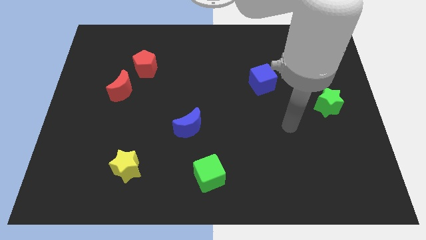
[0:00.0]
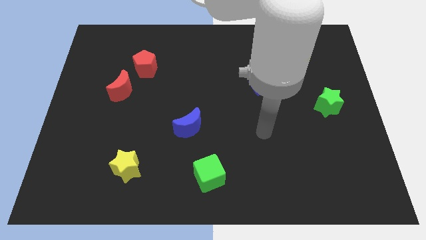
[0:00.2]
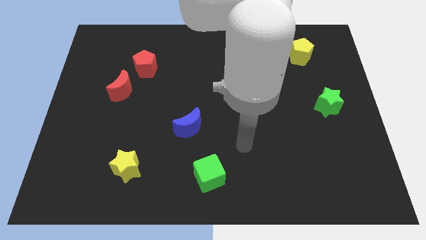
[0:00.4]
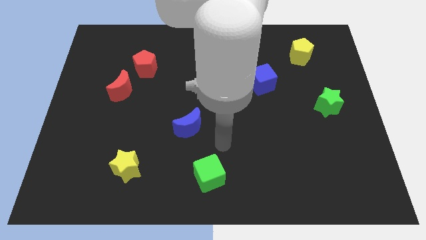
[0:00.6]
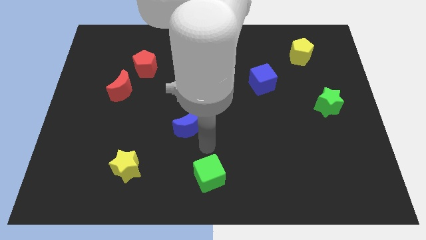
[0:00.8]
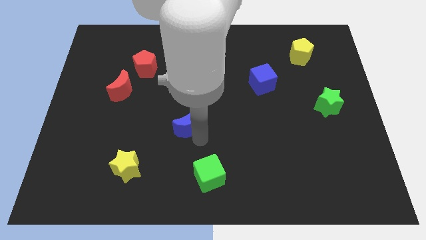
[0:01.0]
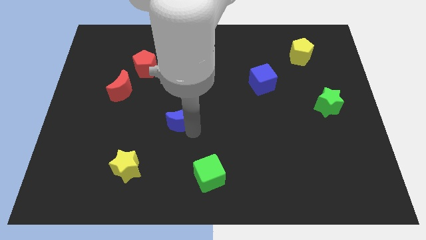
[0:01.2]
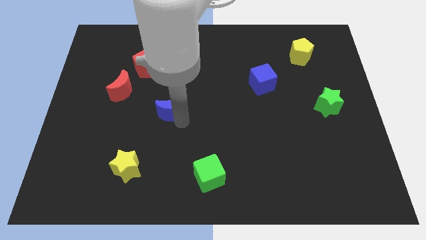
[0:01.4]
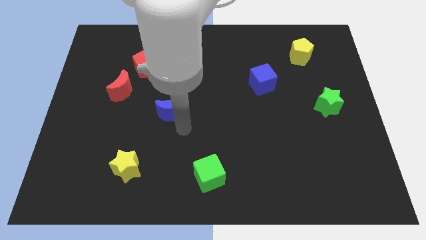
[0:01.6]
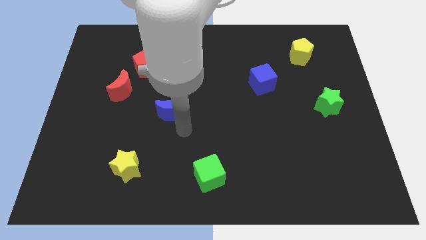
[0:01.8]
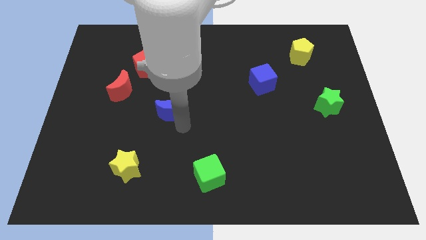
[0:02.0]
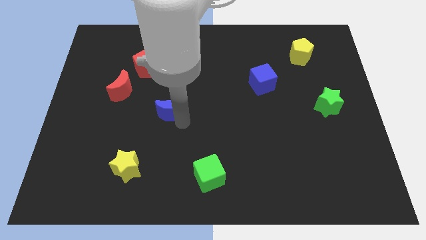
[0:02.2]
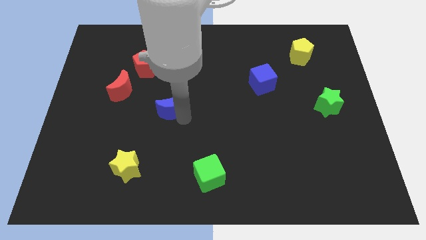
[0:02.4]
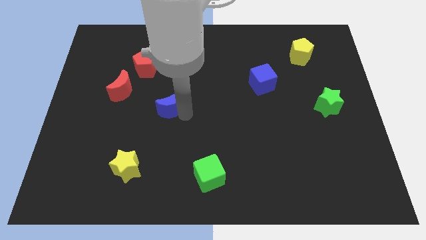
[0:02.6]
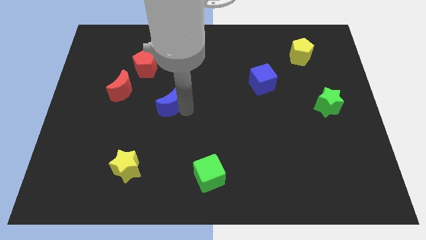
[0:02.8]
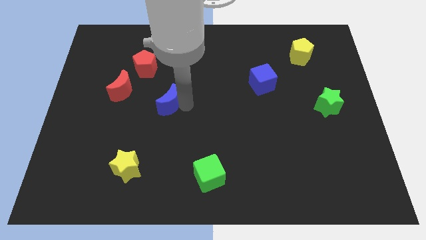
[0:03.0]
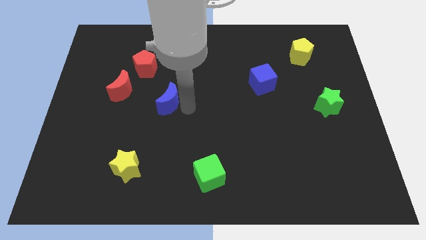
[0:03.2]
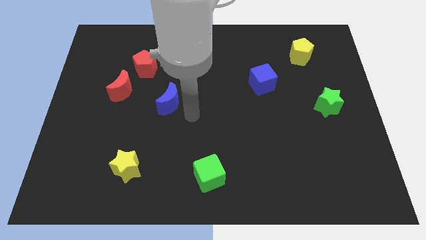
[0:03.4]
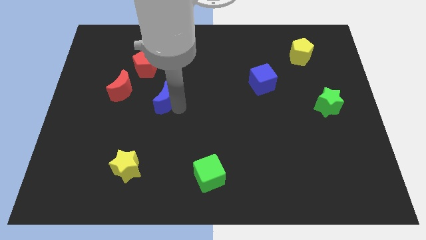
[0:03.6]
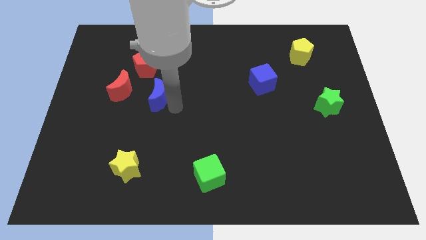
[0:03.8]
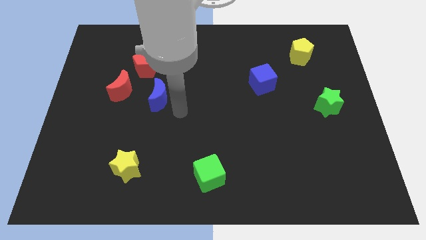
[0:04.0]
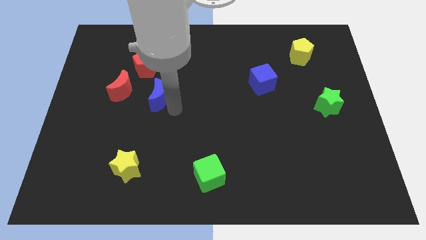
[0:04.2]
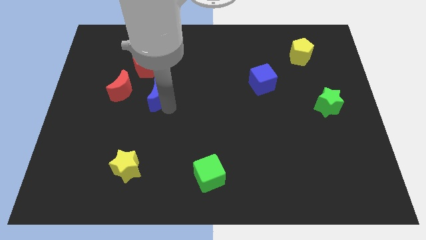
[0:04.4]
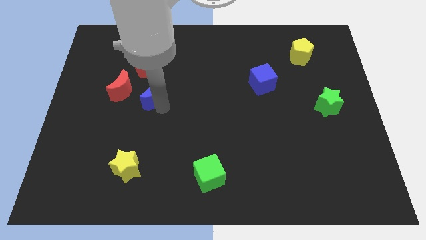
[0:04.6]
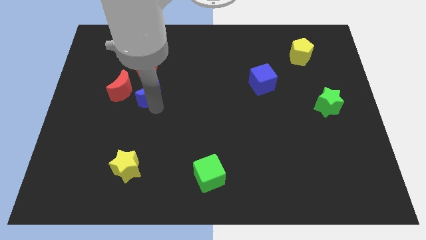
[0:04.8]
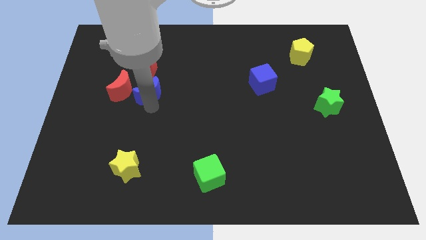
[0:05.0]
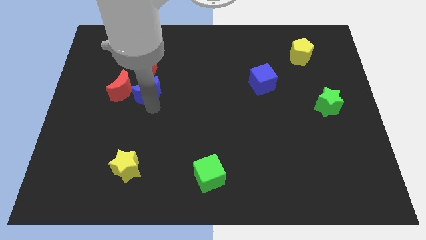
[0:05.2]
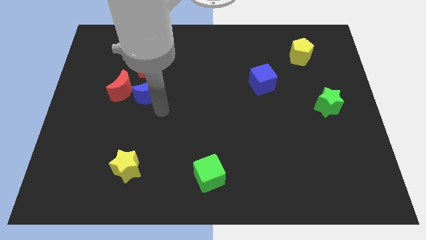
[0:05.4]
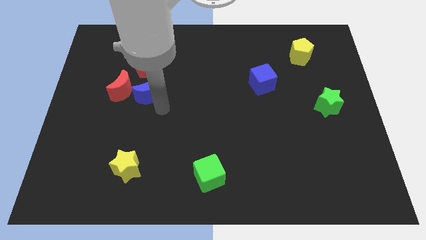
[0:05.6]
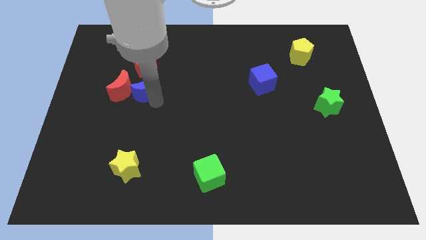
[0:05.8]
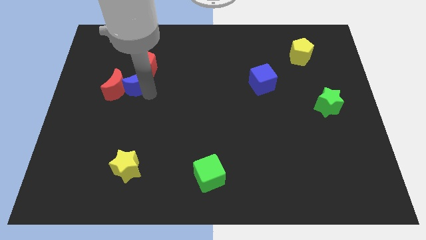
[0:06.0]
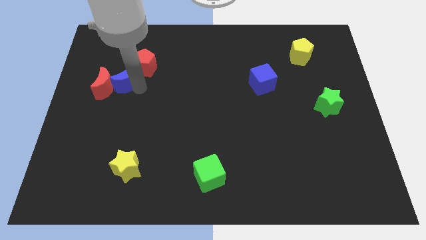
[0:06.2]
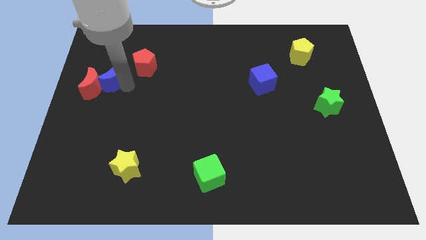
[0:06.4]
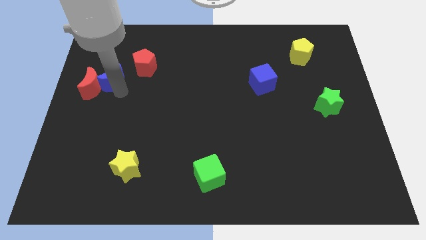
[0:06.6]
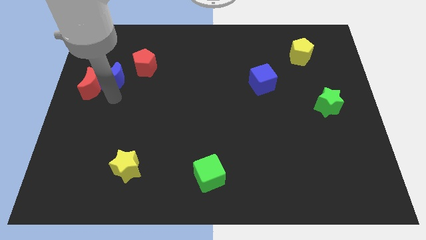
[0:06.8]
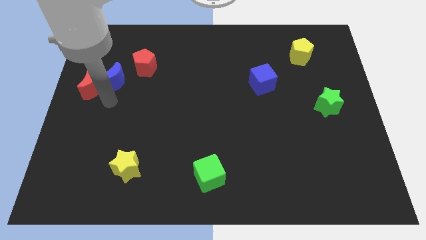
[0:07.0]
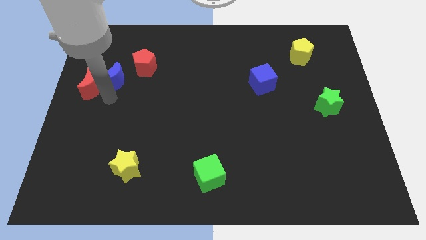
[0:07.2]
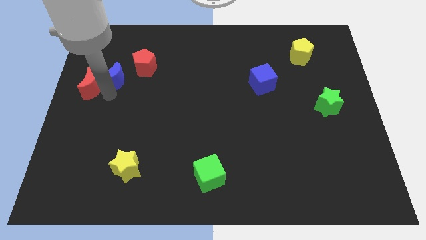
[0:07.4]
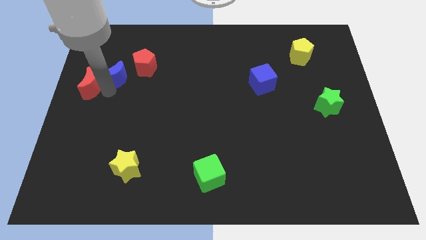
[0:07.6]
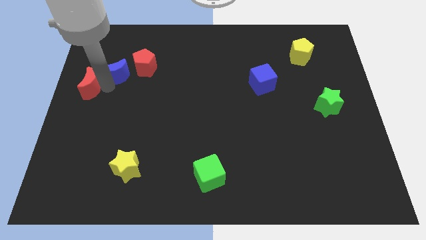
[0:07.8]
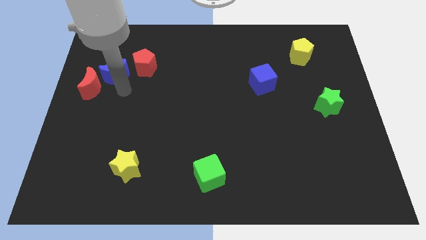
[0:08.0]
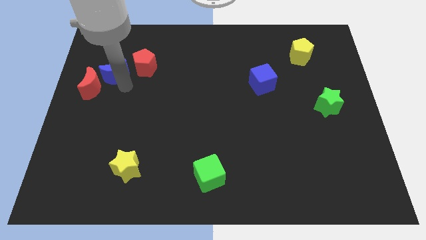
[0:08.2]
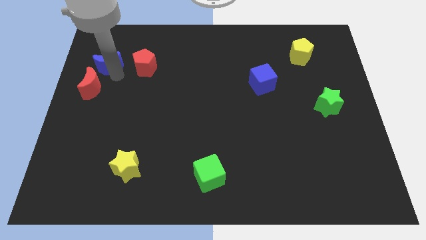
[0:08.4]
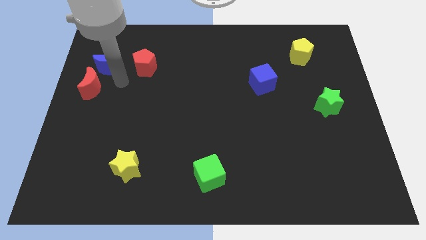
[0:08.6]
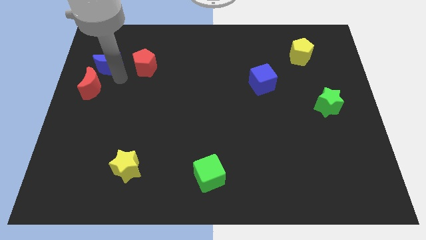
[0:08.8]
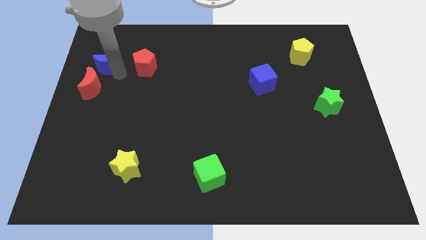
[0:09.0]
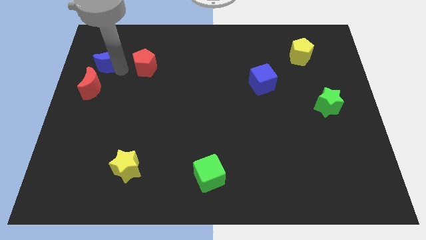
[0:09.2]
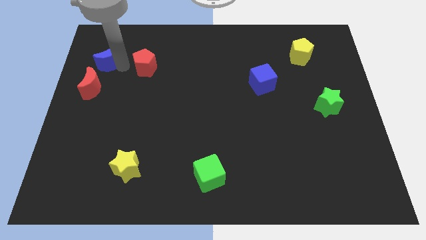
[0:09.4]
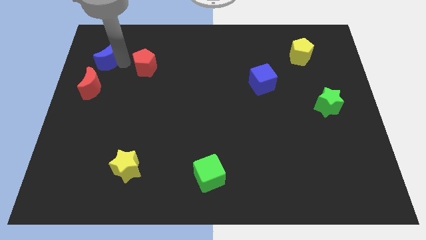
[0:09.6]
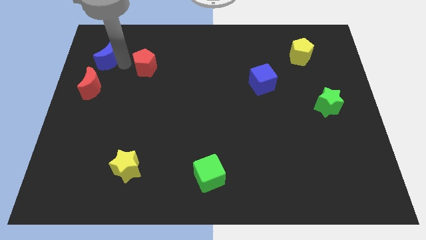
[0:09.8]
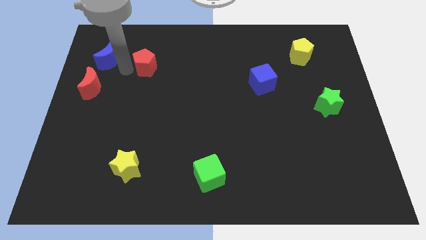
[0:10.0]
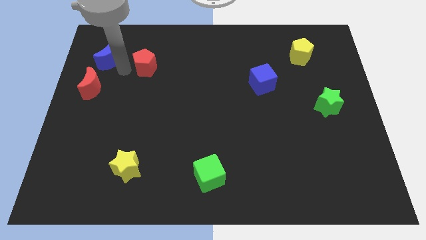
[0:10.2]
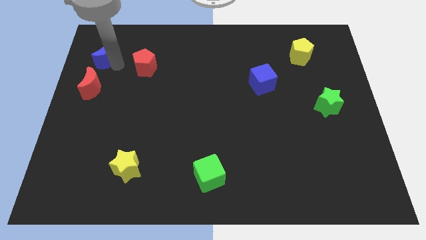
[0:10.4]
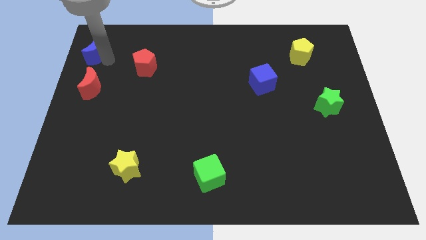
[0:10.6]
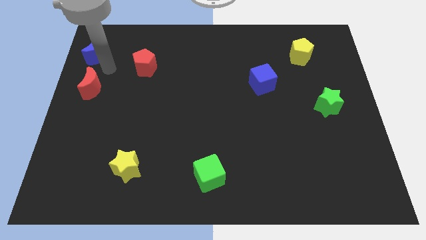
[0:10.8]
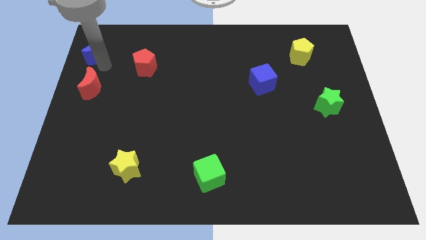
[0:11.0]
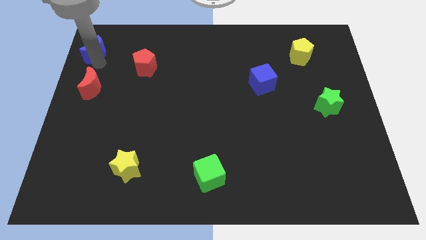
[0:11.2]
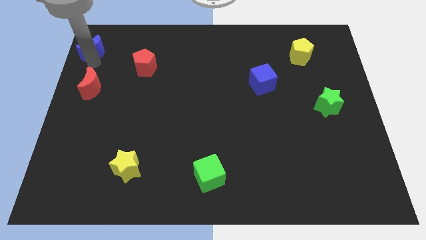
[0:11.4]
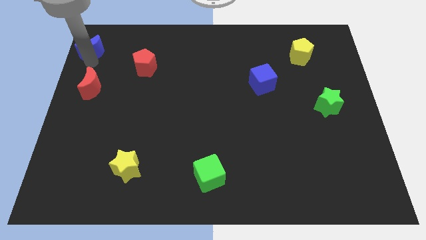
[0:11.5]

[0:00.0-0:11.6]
push the blue moon to the upper left corner

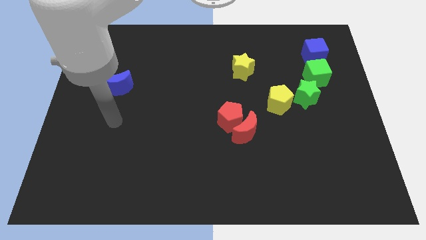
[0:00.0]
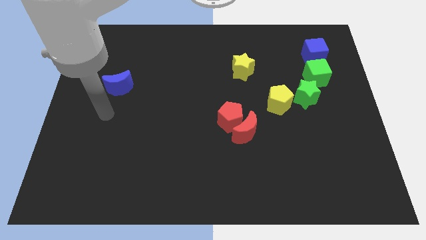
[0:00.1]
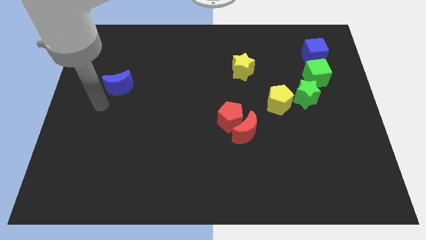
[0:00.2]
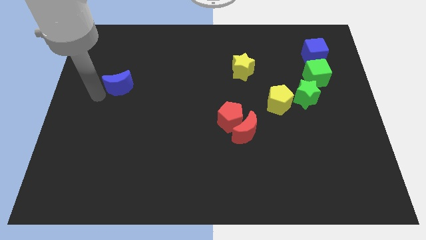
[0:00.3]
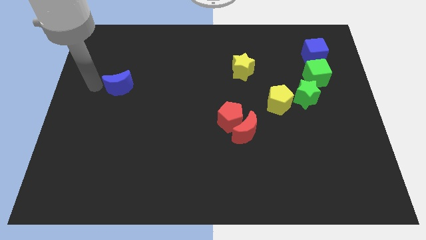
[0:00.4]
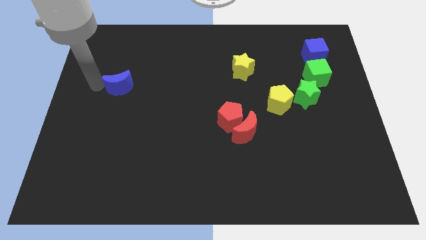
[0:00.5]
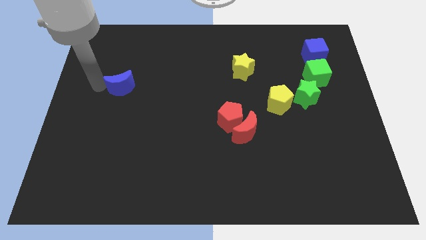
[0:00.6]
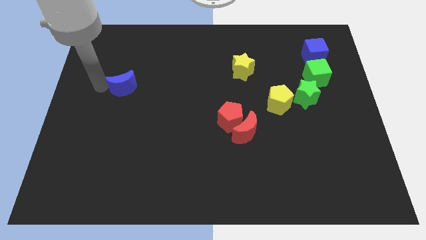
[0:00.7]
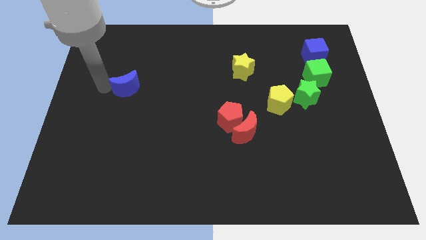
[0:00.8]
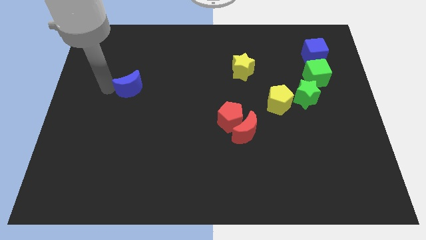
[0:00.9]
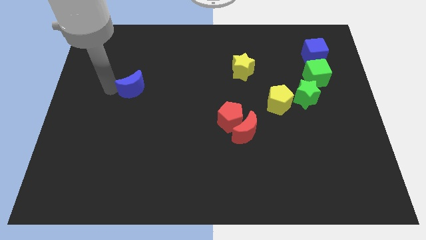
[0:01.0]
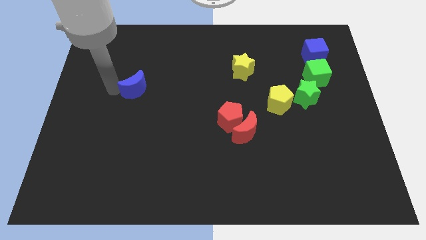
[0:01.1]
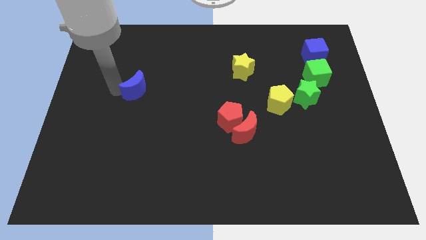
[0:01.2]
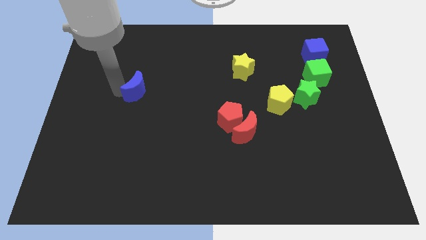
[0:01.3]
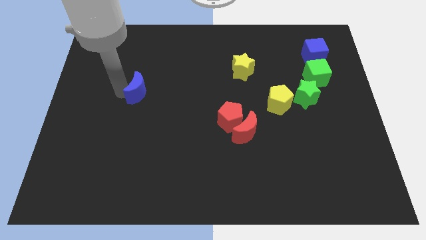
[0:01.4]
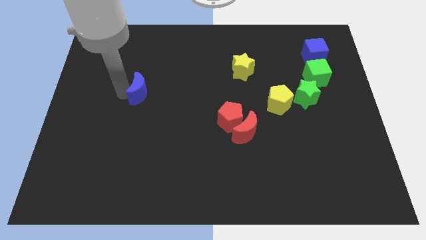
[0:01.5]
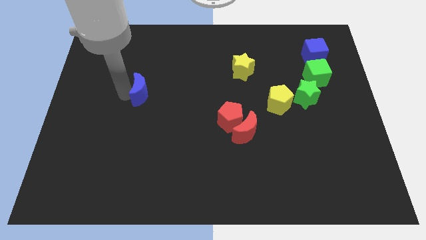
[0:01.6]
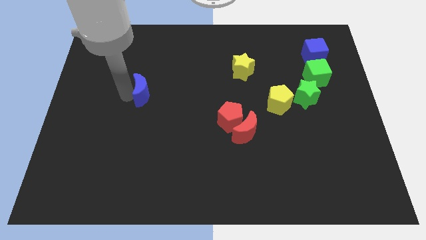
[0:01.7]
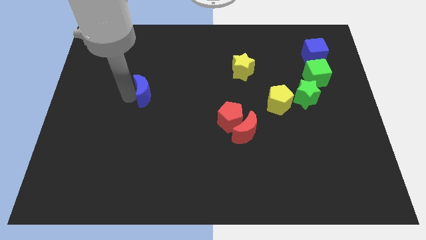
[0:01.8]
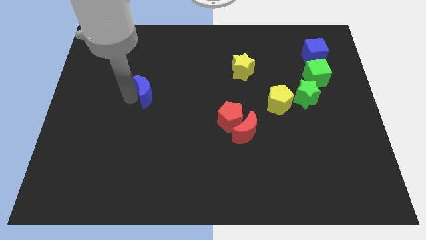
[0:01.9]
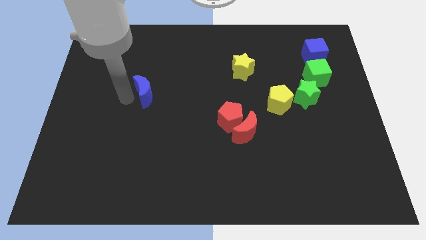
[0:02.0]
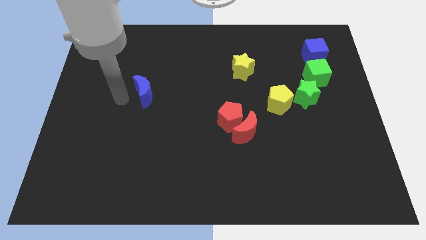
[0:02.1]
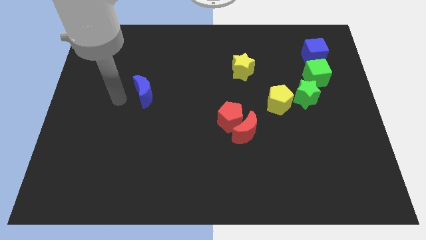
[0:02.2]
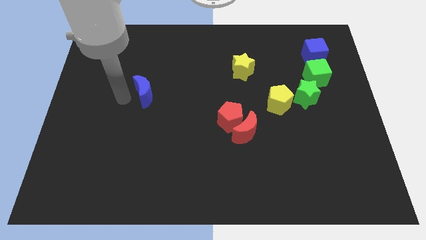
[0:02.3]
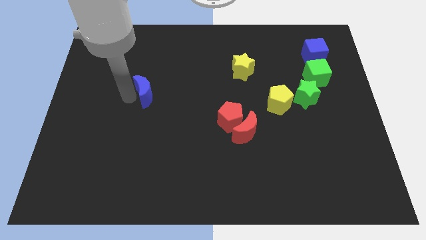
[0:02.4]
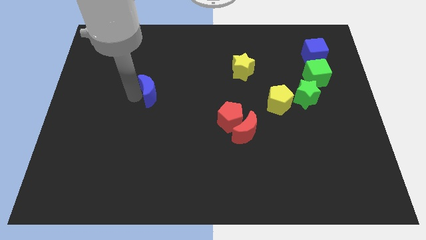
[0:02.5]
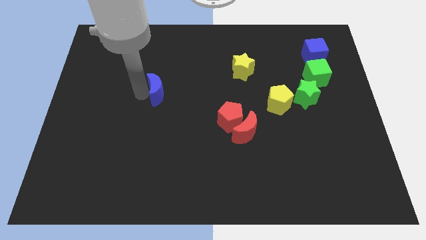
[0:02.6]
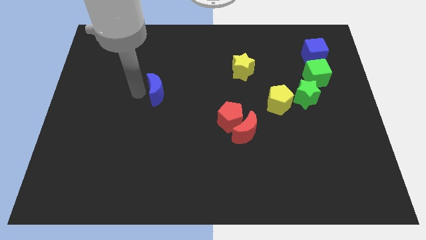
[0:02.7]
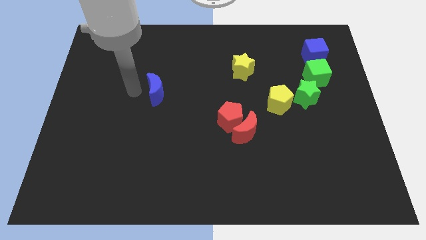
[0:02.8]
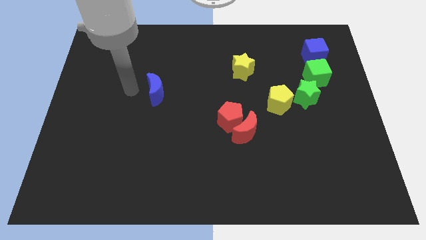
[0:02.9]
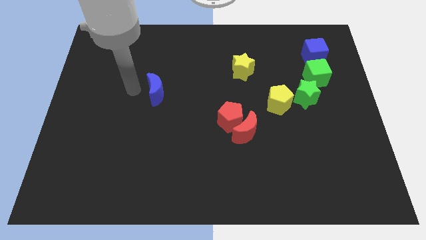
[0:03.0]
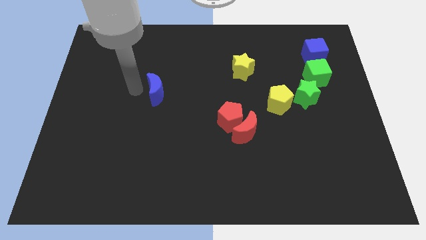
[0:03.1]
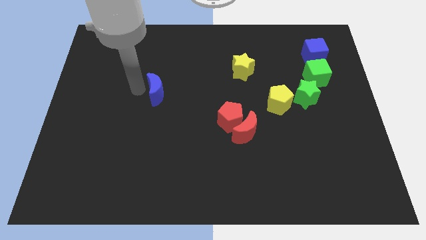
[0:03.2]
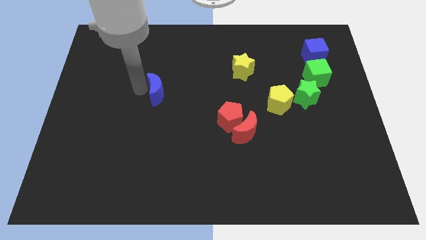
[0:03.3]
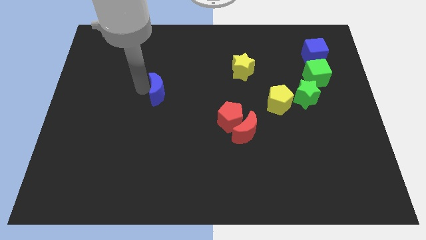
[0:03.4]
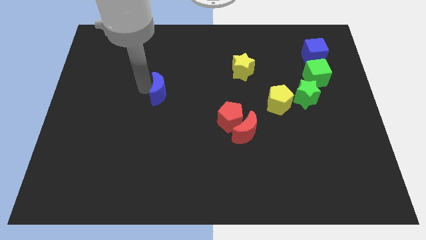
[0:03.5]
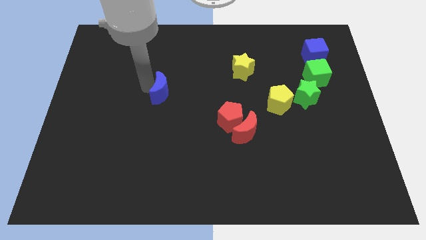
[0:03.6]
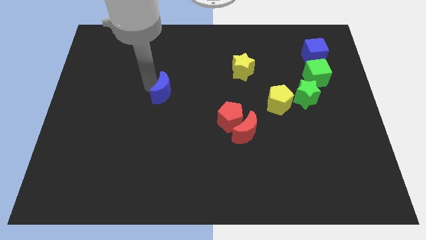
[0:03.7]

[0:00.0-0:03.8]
put the blue moon to the center of the board
